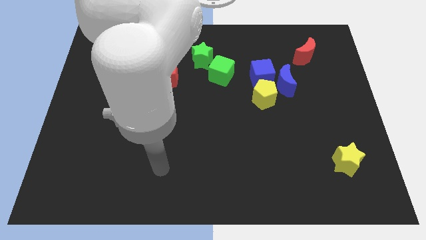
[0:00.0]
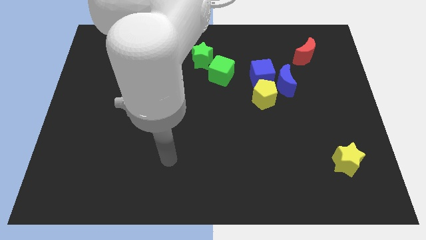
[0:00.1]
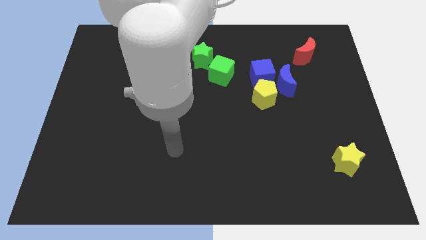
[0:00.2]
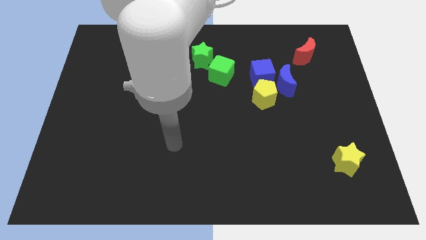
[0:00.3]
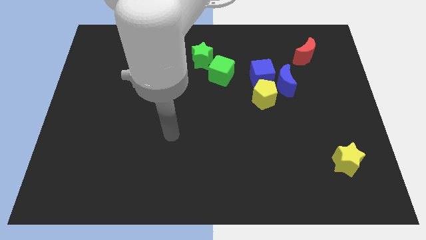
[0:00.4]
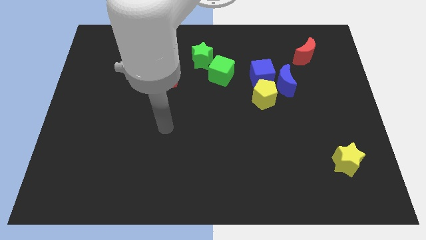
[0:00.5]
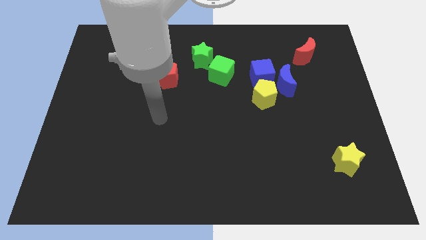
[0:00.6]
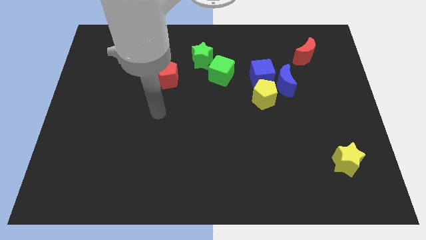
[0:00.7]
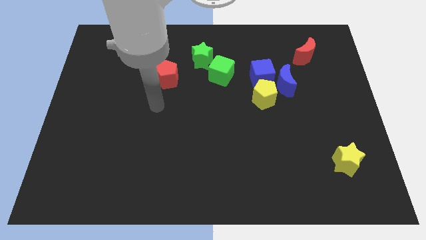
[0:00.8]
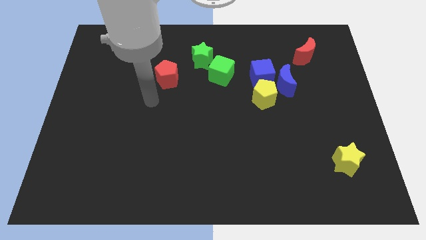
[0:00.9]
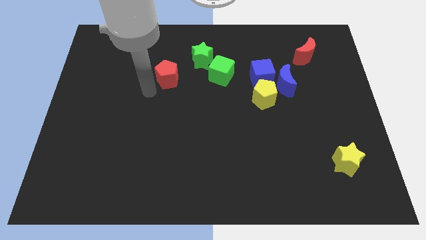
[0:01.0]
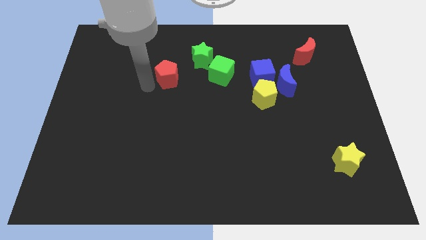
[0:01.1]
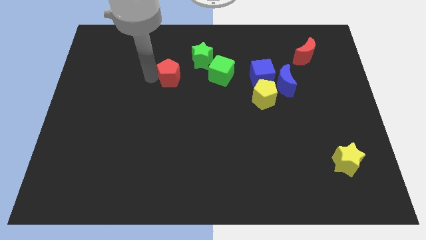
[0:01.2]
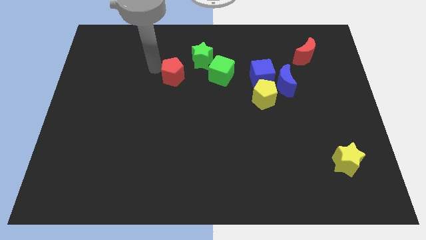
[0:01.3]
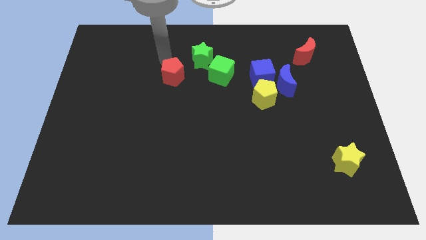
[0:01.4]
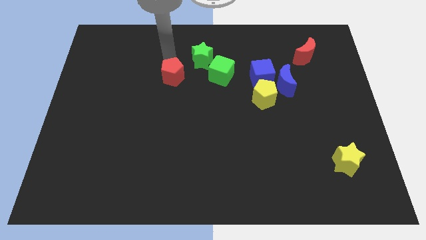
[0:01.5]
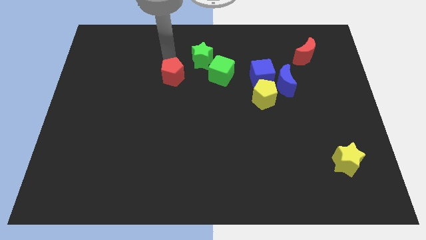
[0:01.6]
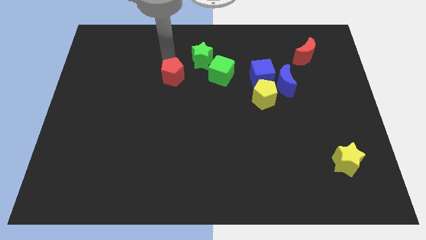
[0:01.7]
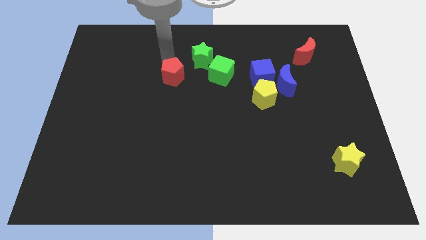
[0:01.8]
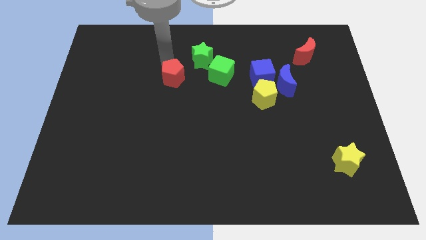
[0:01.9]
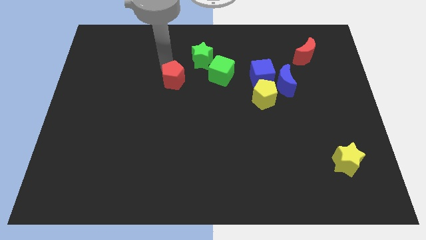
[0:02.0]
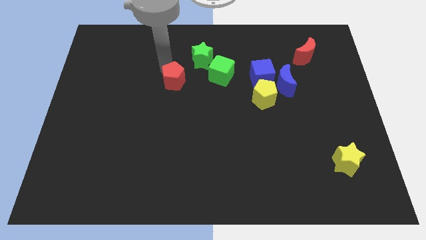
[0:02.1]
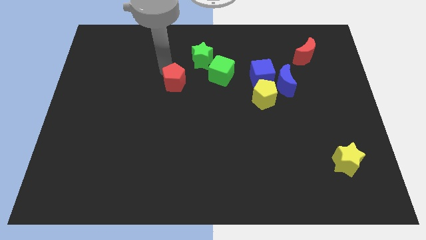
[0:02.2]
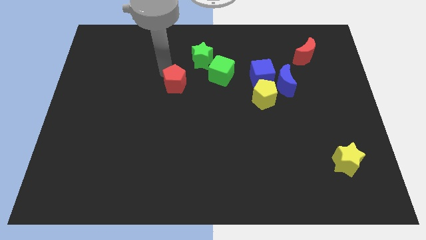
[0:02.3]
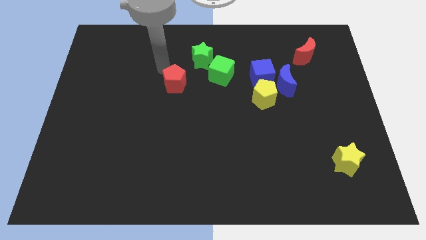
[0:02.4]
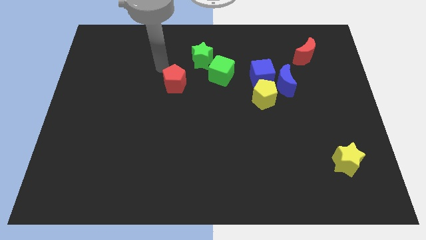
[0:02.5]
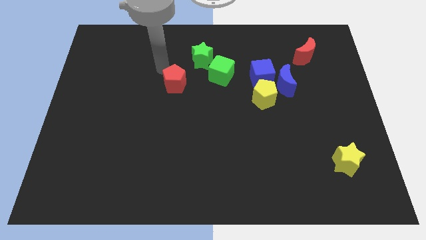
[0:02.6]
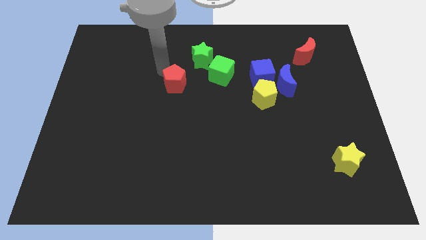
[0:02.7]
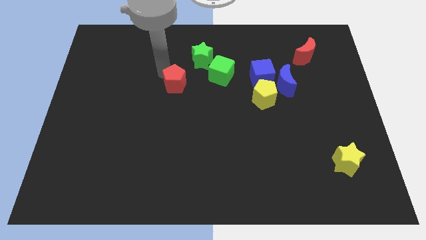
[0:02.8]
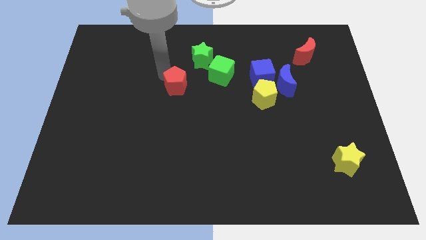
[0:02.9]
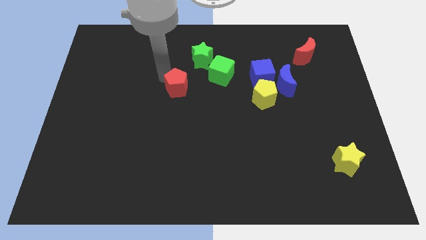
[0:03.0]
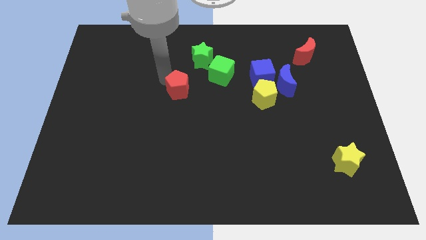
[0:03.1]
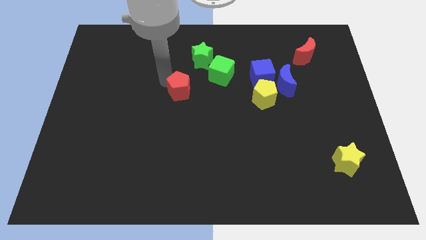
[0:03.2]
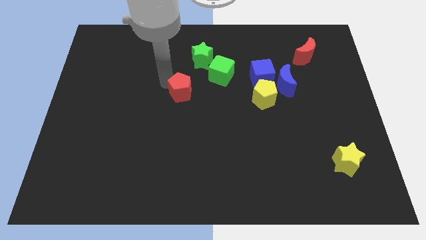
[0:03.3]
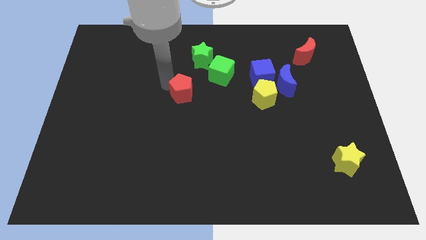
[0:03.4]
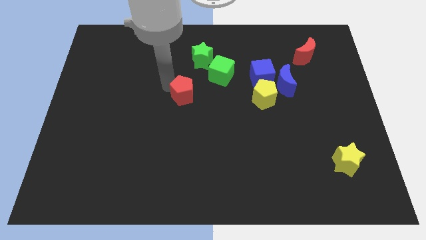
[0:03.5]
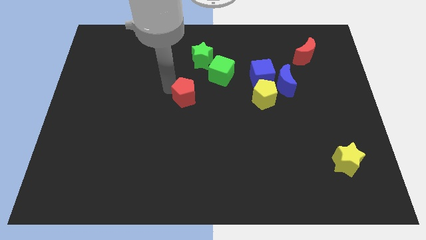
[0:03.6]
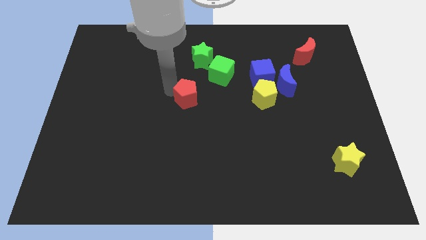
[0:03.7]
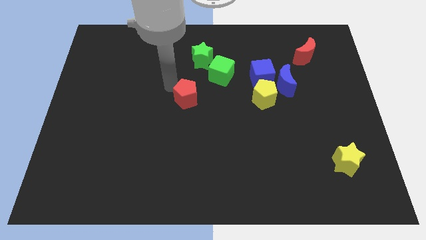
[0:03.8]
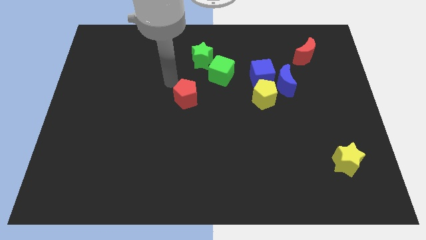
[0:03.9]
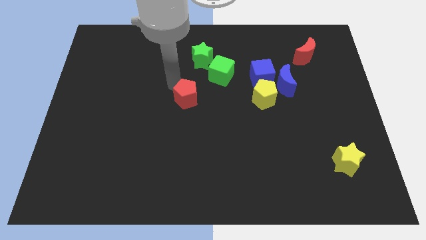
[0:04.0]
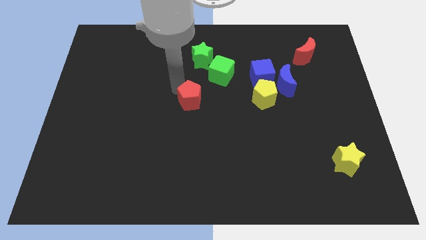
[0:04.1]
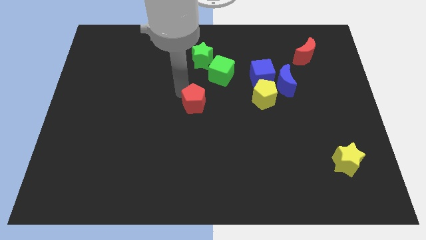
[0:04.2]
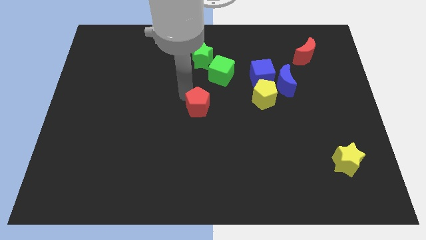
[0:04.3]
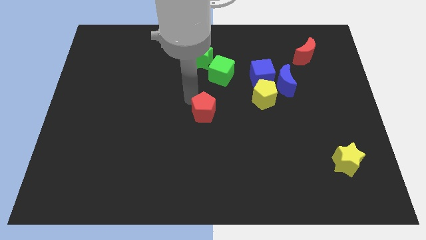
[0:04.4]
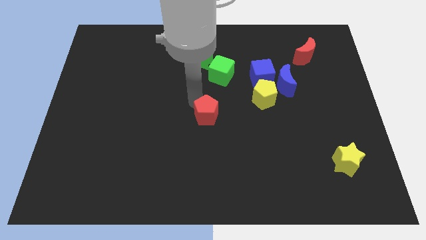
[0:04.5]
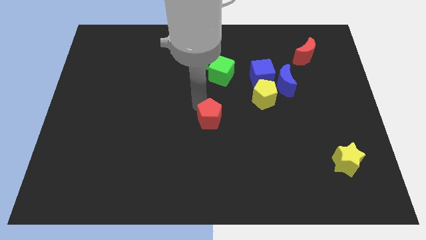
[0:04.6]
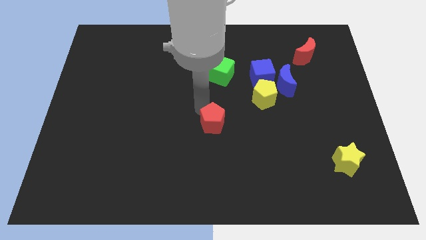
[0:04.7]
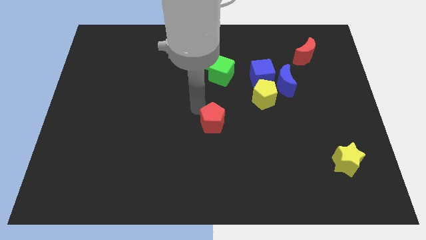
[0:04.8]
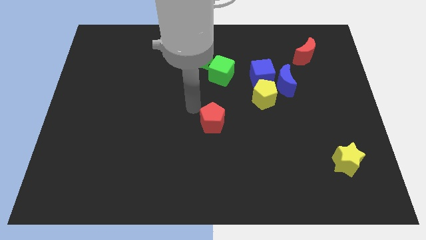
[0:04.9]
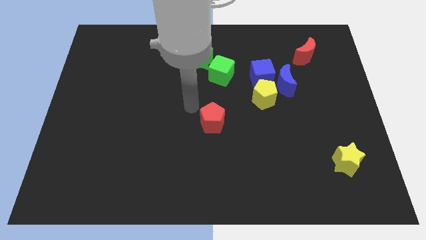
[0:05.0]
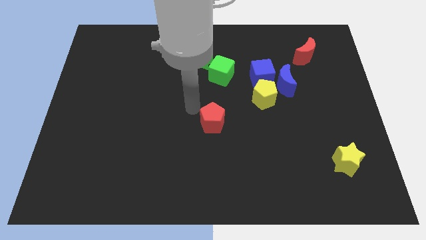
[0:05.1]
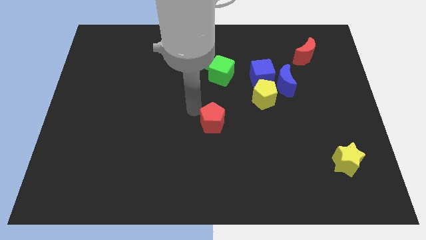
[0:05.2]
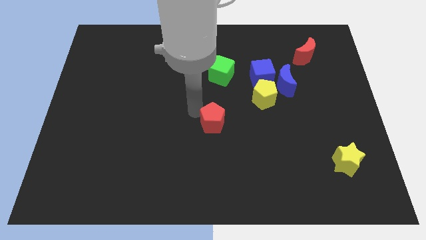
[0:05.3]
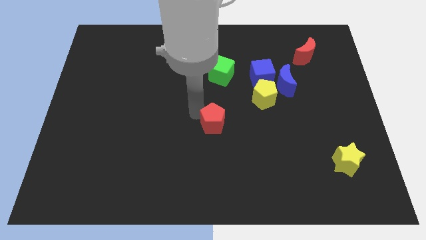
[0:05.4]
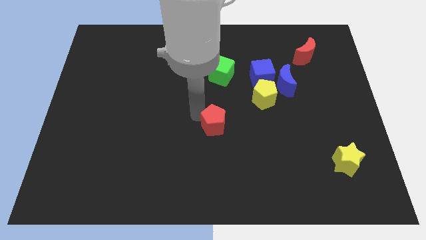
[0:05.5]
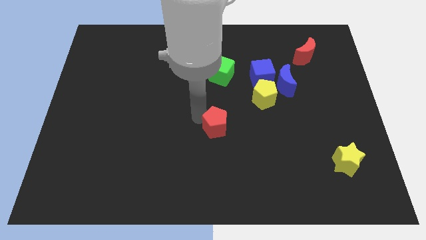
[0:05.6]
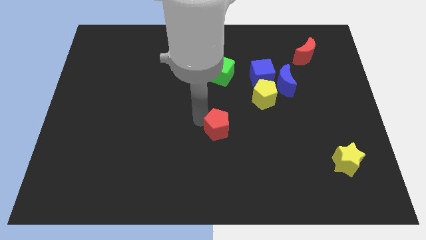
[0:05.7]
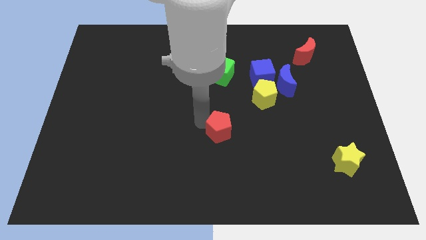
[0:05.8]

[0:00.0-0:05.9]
move the red pentagon down and right diagonally

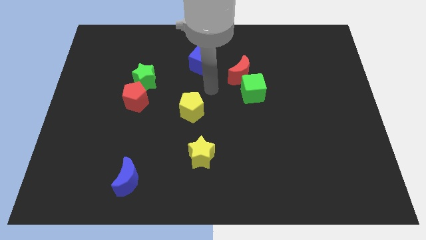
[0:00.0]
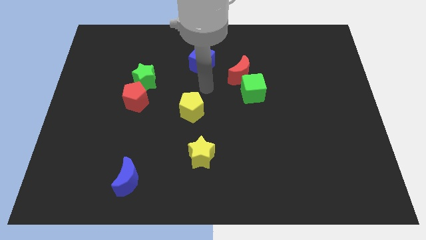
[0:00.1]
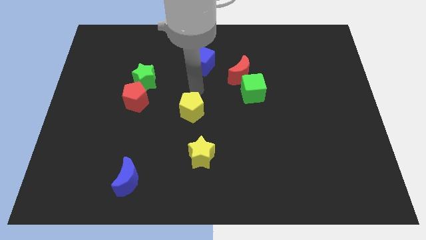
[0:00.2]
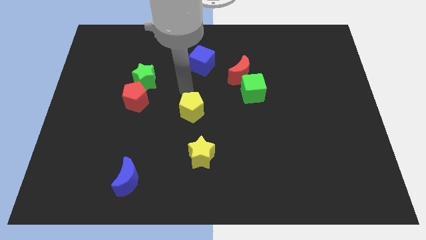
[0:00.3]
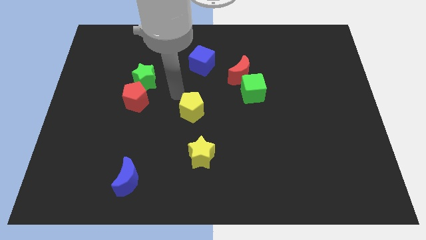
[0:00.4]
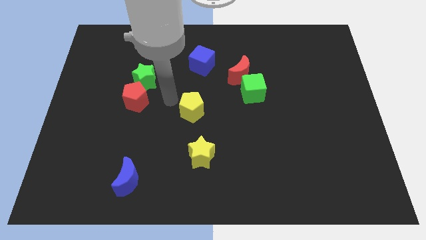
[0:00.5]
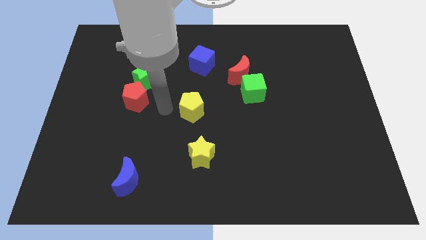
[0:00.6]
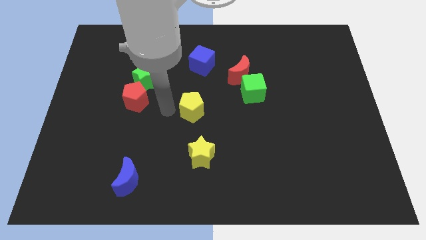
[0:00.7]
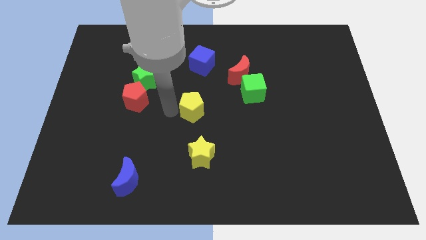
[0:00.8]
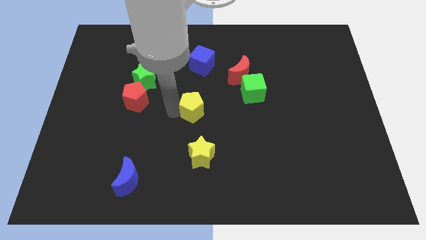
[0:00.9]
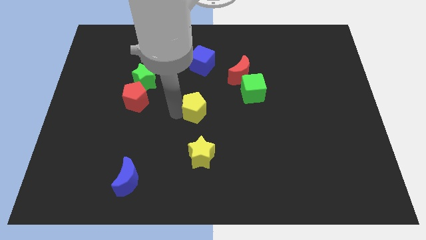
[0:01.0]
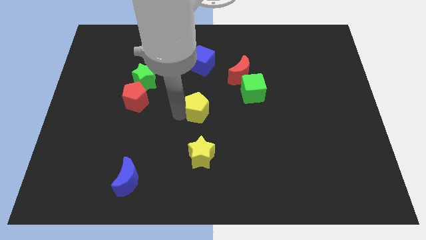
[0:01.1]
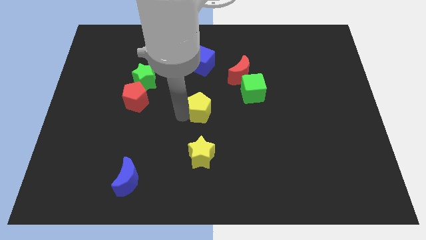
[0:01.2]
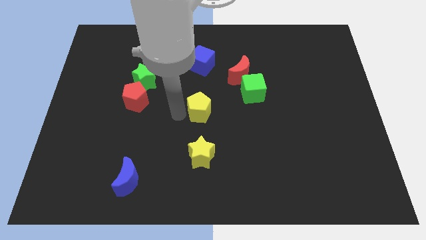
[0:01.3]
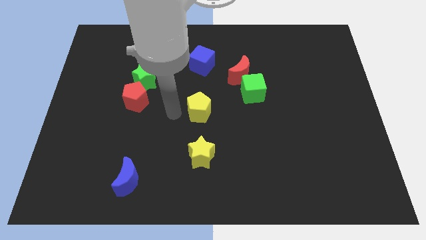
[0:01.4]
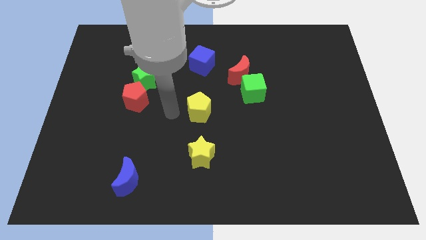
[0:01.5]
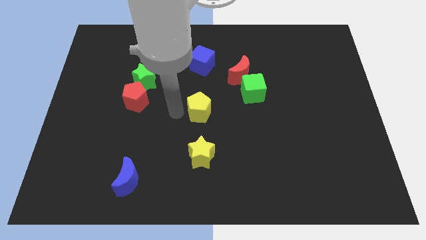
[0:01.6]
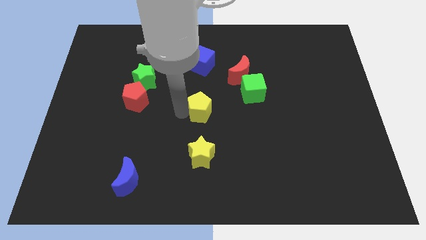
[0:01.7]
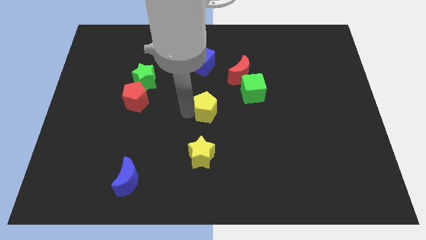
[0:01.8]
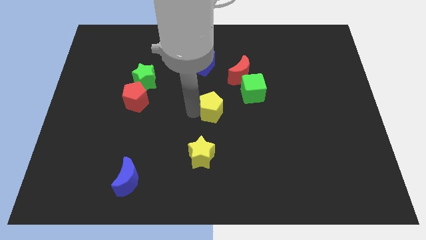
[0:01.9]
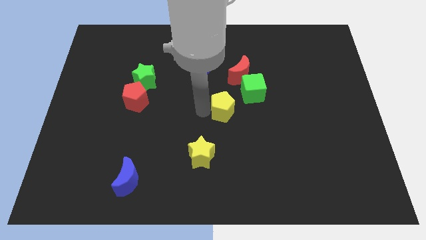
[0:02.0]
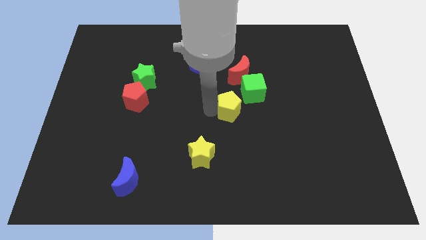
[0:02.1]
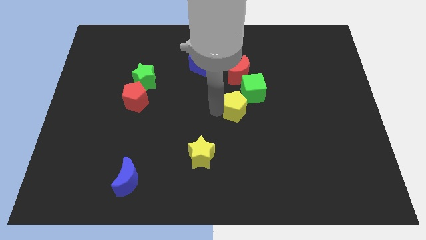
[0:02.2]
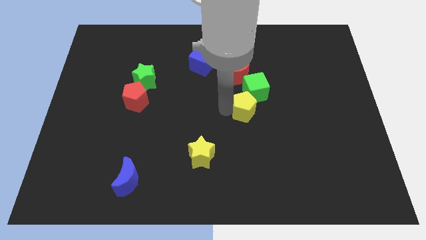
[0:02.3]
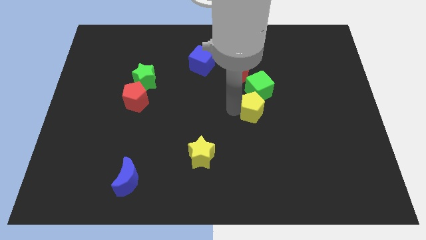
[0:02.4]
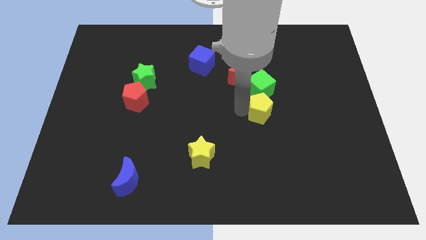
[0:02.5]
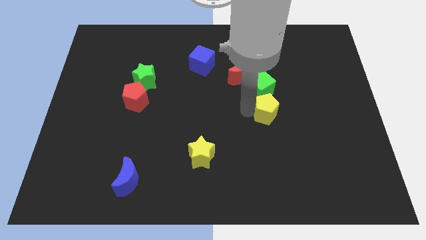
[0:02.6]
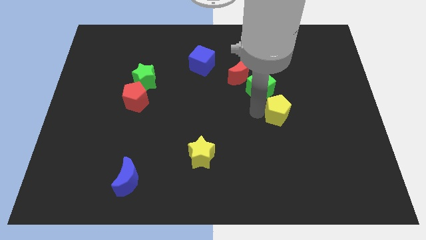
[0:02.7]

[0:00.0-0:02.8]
move the yellow pentagon right
